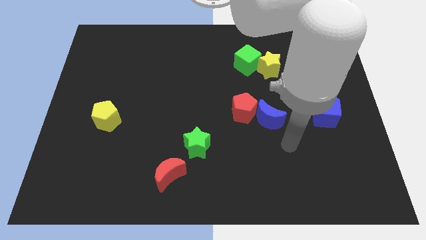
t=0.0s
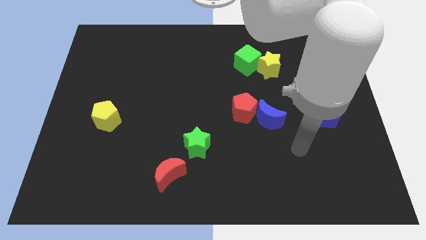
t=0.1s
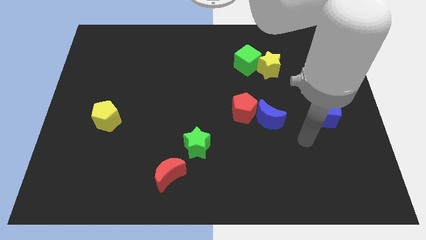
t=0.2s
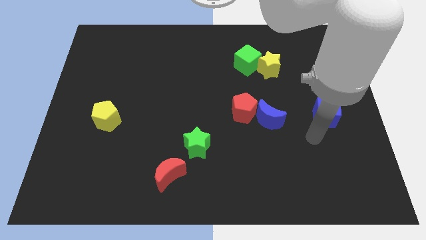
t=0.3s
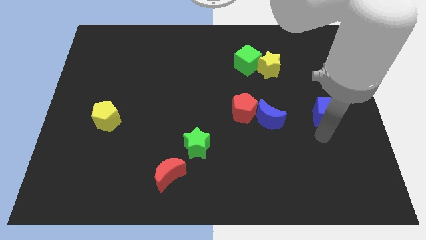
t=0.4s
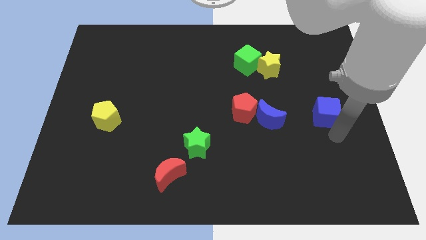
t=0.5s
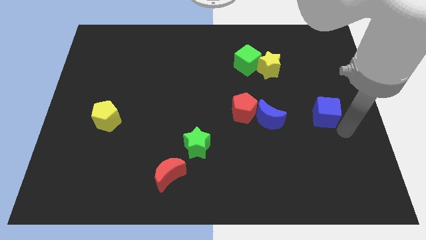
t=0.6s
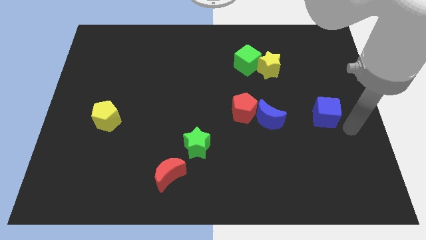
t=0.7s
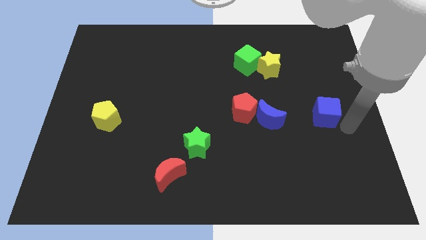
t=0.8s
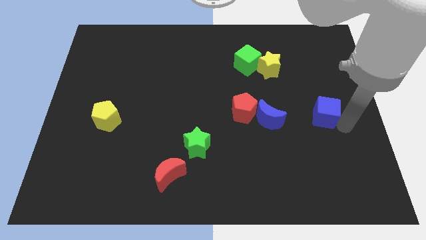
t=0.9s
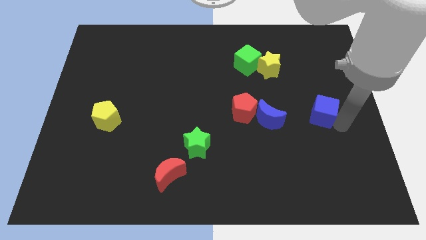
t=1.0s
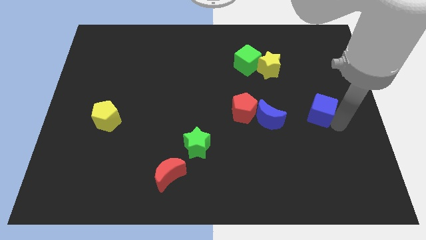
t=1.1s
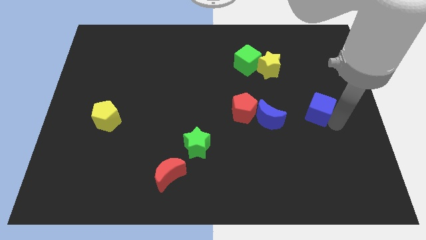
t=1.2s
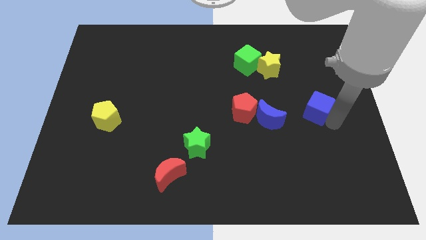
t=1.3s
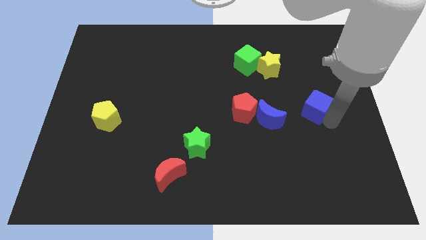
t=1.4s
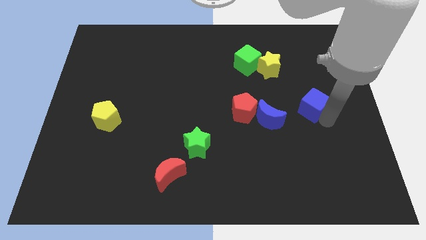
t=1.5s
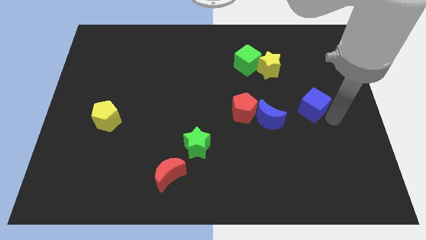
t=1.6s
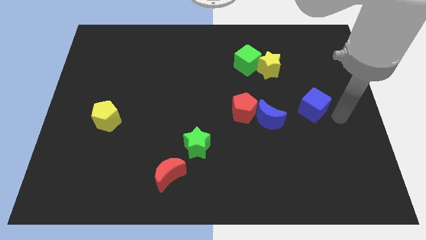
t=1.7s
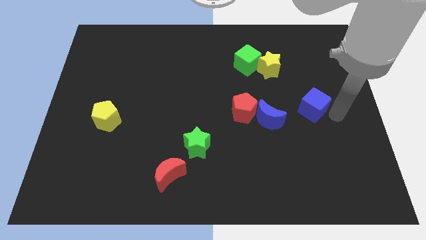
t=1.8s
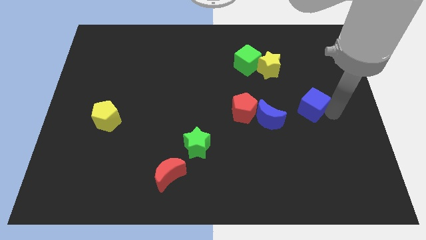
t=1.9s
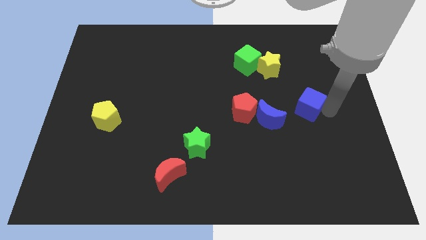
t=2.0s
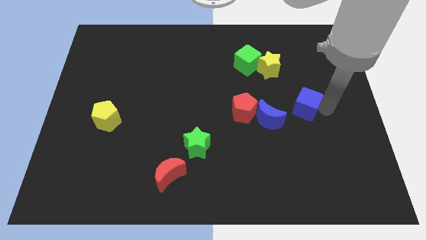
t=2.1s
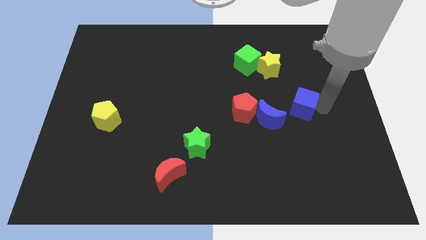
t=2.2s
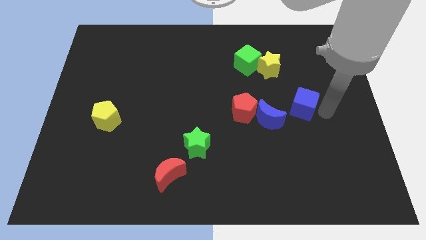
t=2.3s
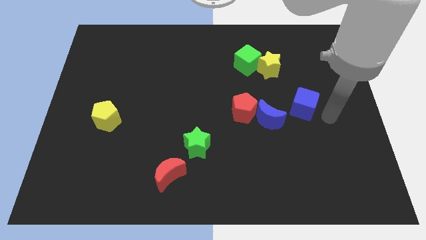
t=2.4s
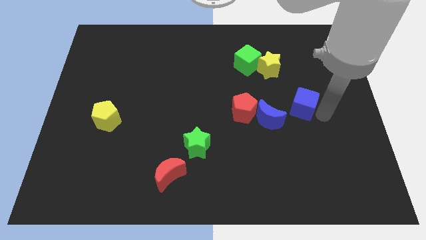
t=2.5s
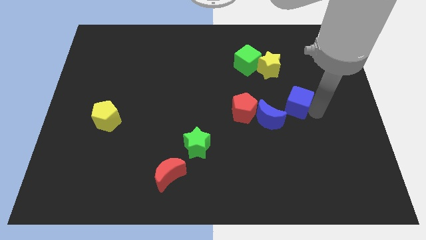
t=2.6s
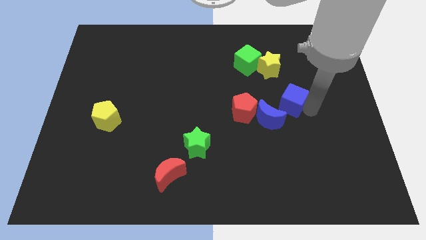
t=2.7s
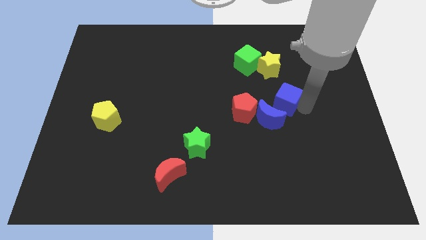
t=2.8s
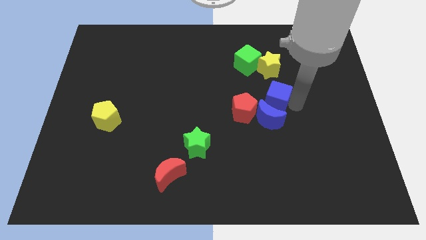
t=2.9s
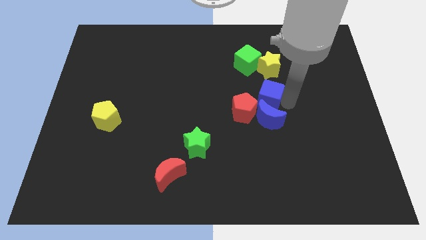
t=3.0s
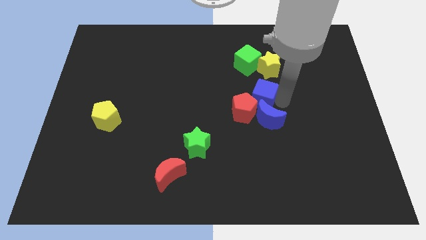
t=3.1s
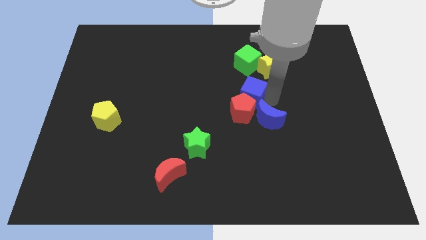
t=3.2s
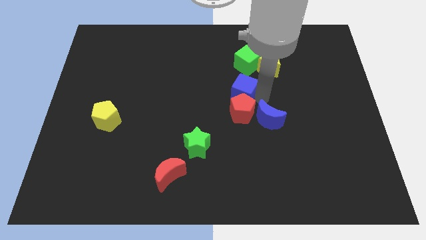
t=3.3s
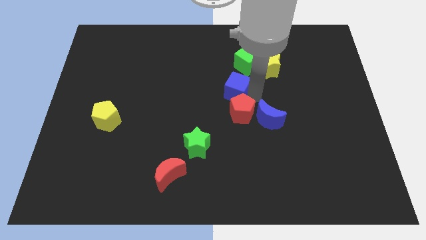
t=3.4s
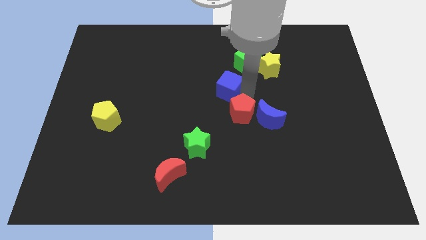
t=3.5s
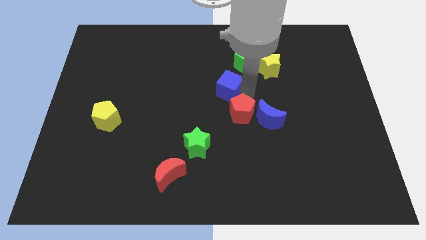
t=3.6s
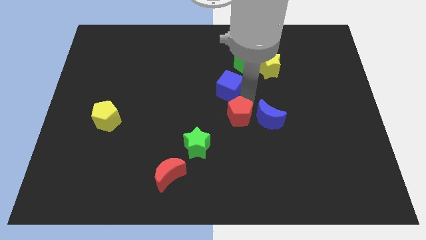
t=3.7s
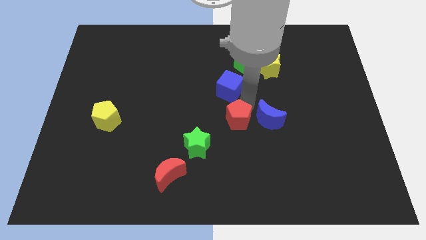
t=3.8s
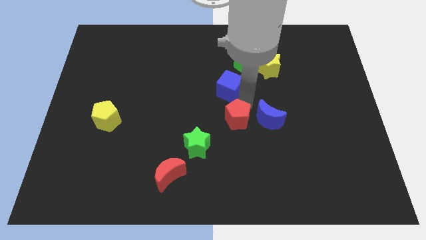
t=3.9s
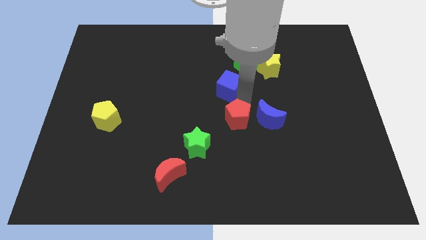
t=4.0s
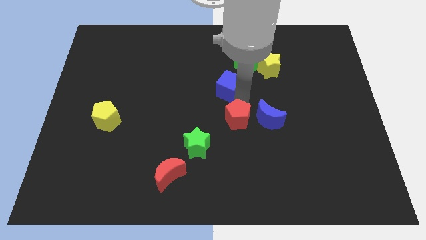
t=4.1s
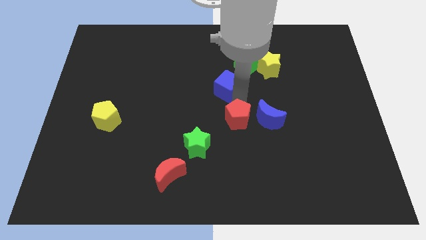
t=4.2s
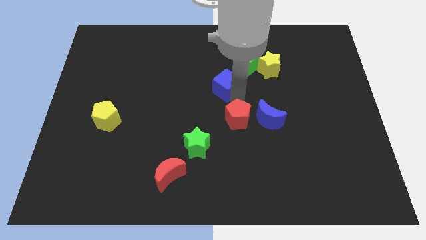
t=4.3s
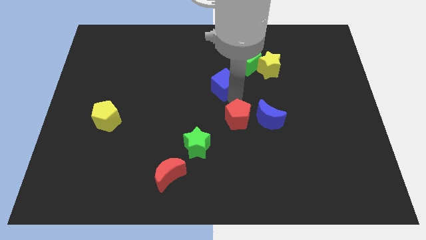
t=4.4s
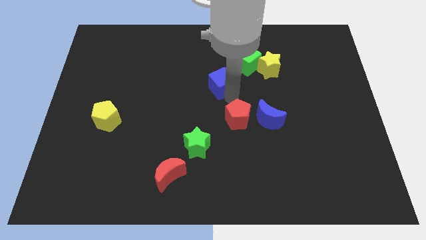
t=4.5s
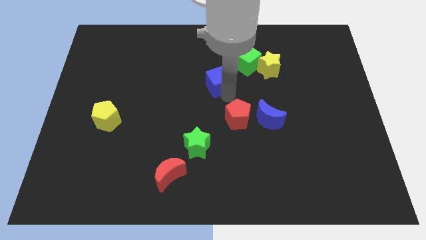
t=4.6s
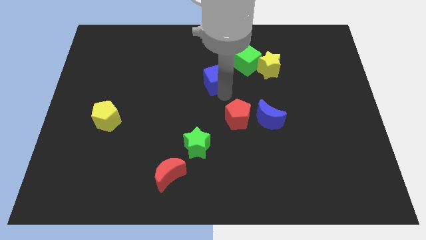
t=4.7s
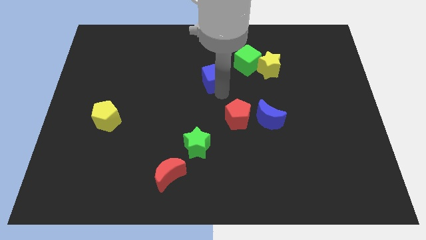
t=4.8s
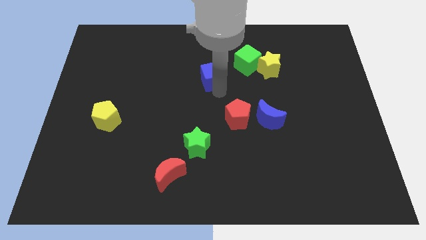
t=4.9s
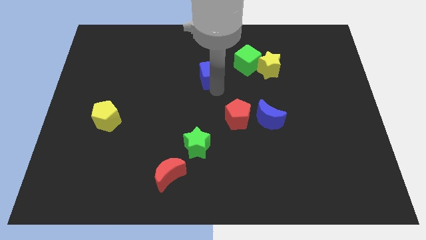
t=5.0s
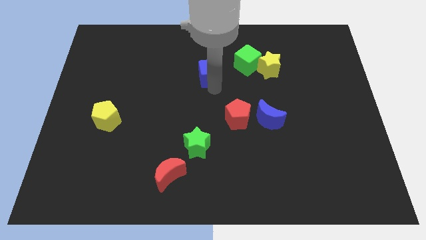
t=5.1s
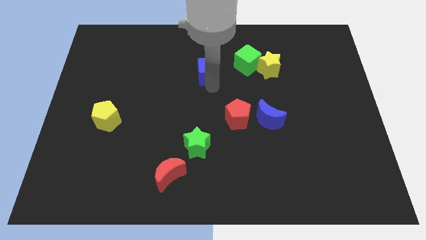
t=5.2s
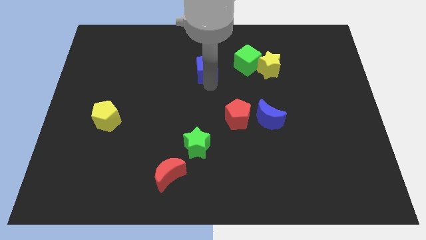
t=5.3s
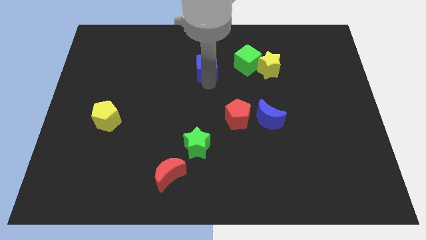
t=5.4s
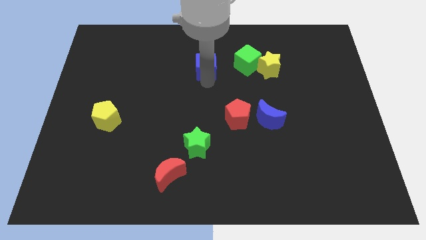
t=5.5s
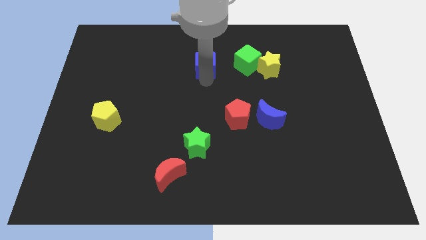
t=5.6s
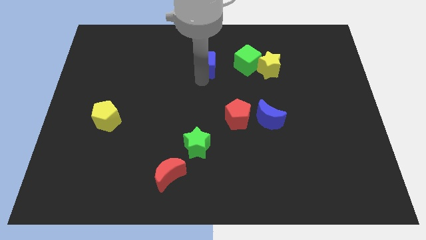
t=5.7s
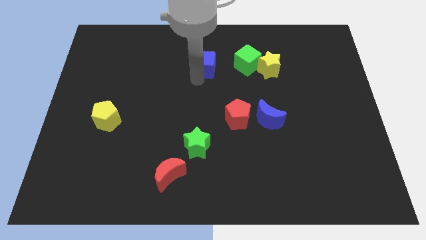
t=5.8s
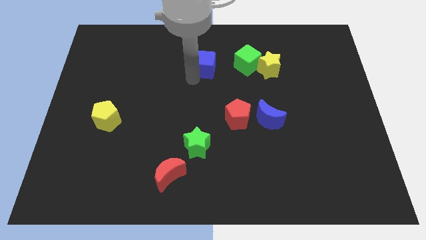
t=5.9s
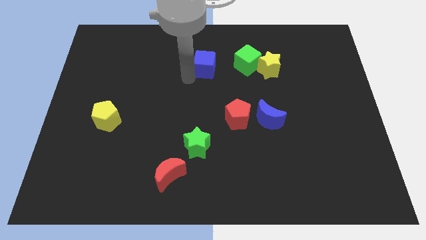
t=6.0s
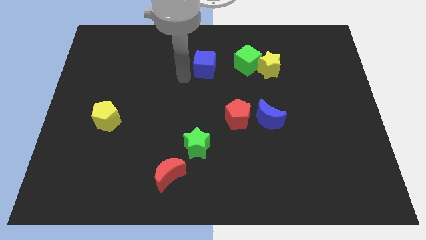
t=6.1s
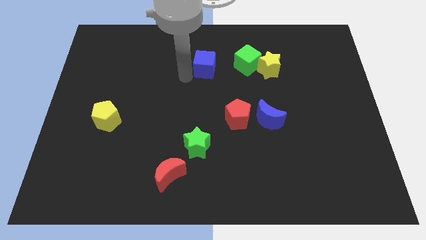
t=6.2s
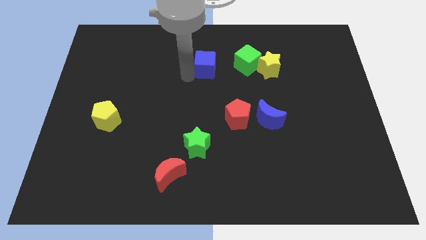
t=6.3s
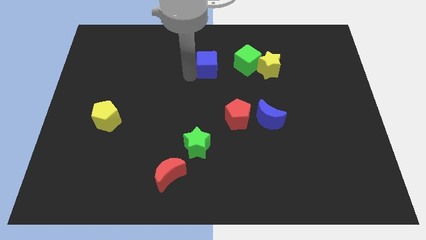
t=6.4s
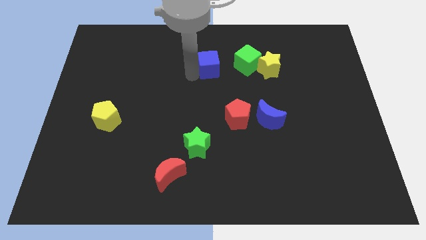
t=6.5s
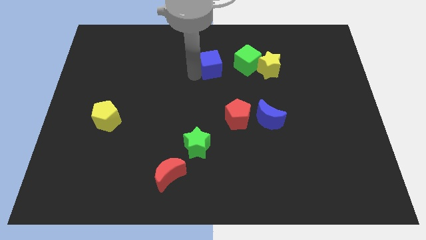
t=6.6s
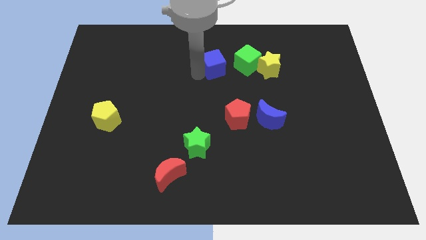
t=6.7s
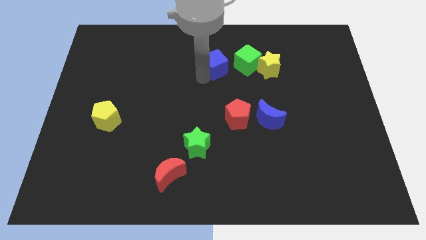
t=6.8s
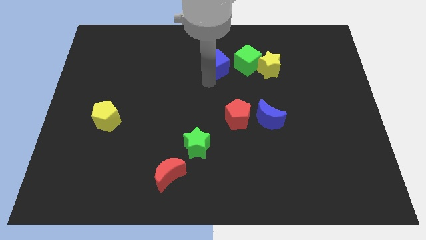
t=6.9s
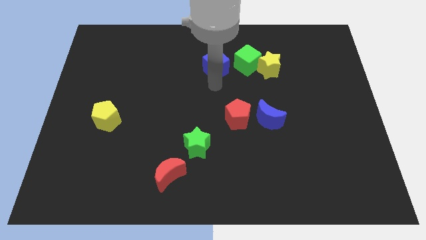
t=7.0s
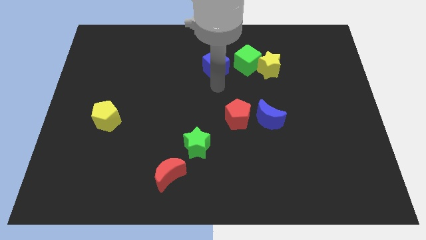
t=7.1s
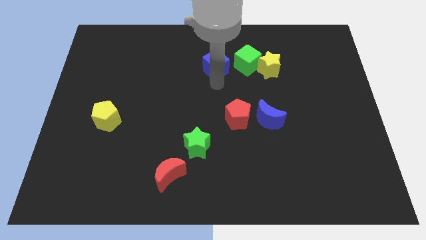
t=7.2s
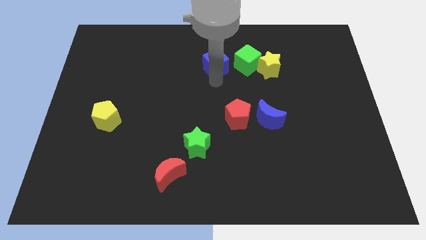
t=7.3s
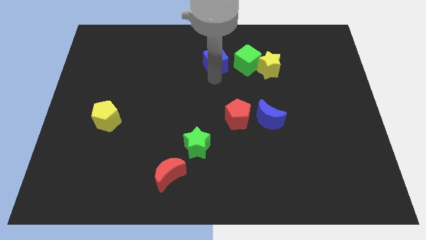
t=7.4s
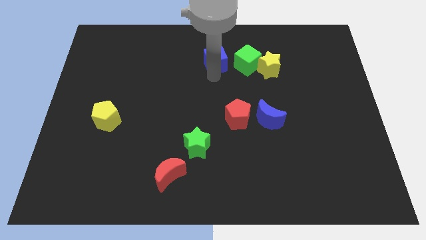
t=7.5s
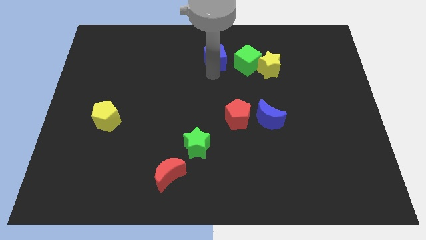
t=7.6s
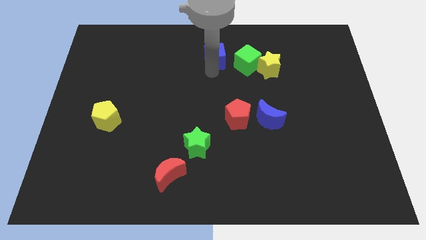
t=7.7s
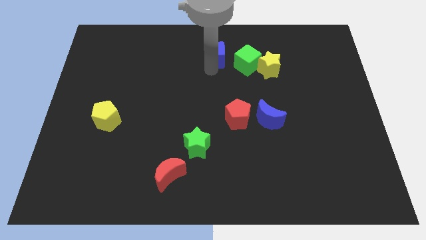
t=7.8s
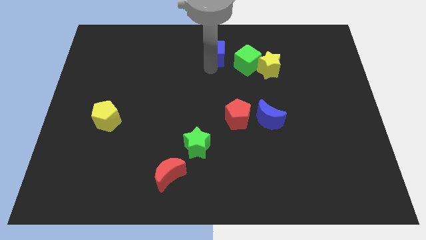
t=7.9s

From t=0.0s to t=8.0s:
put the blue cube to the towards your base
